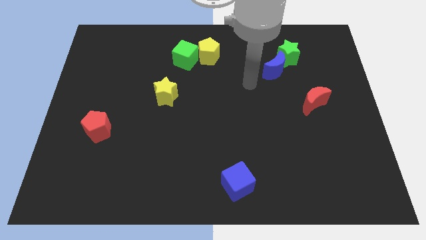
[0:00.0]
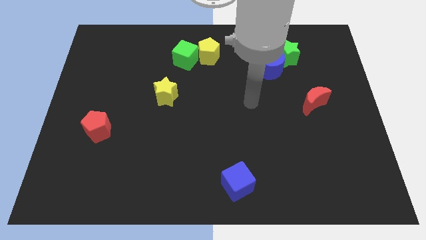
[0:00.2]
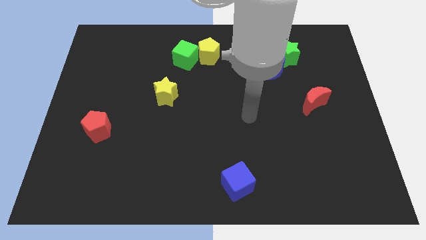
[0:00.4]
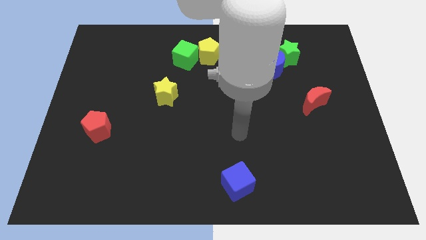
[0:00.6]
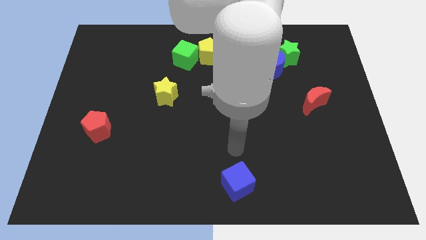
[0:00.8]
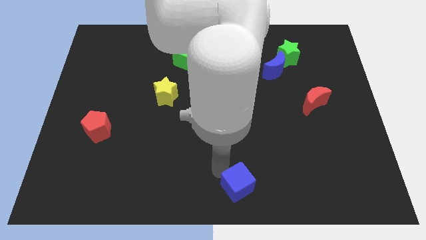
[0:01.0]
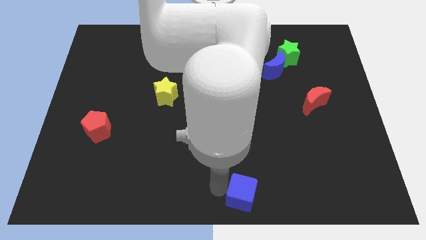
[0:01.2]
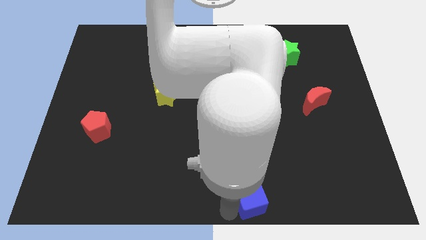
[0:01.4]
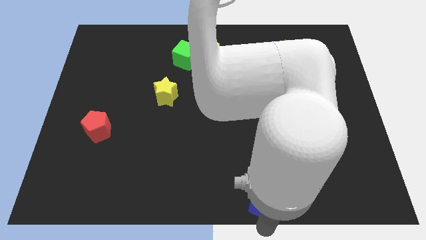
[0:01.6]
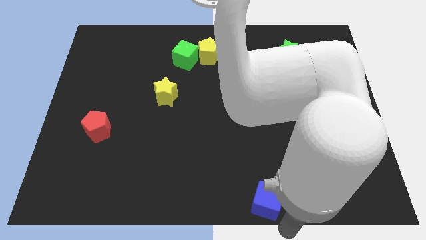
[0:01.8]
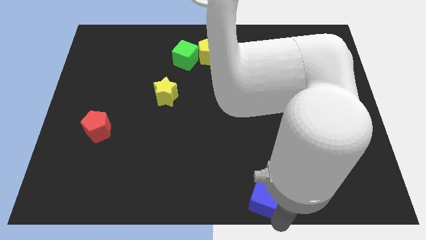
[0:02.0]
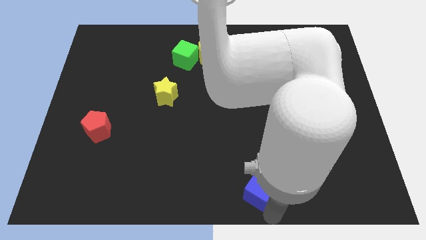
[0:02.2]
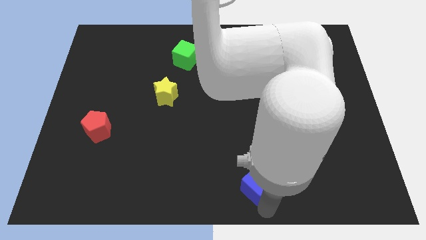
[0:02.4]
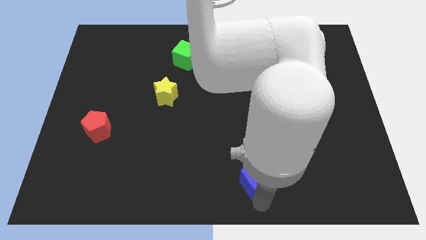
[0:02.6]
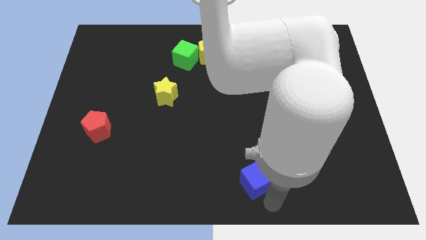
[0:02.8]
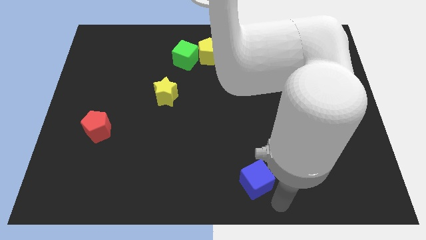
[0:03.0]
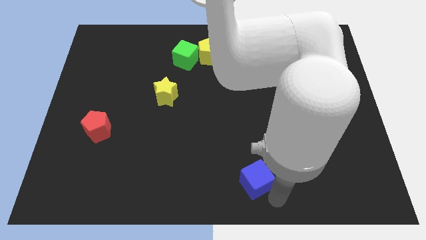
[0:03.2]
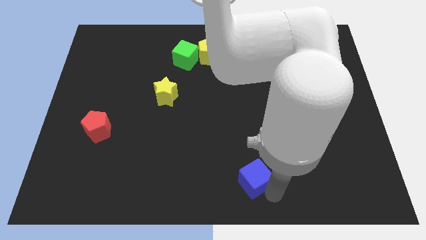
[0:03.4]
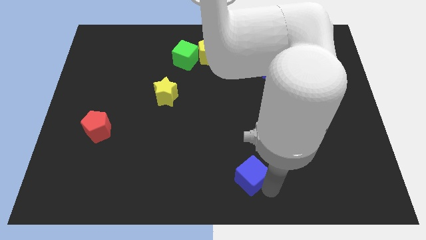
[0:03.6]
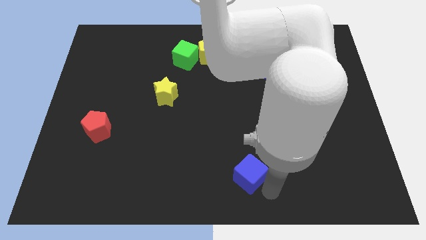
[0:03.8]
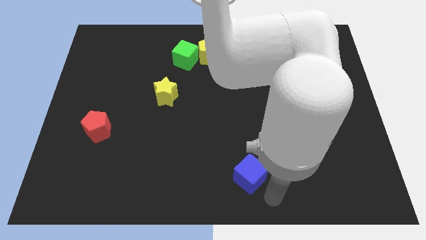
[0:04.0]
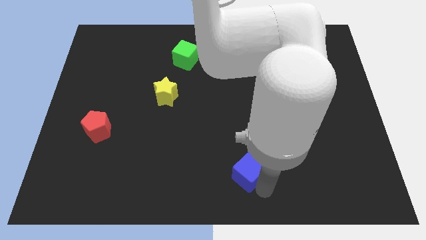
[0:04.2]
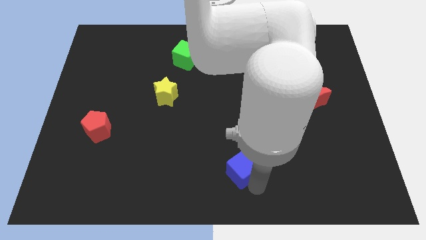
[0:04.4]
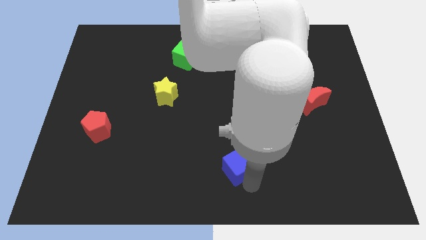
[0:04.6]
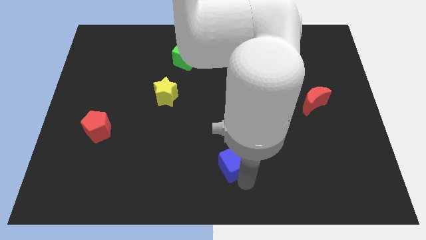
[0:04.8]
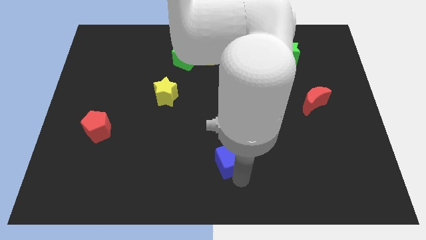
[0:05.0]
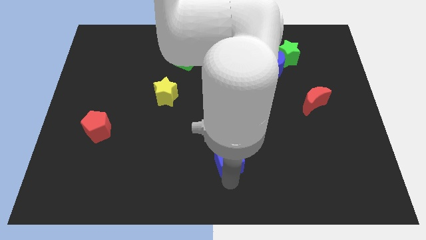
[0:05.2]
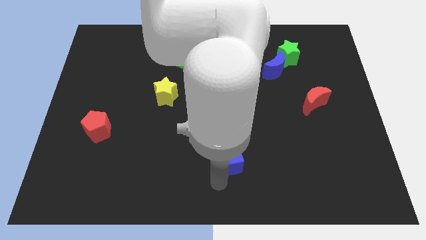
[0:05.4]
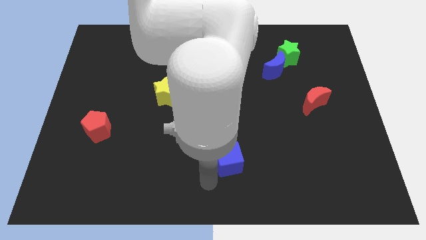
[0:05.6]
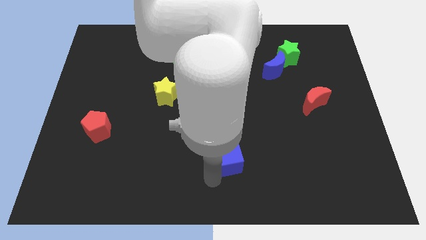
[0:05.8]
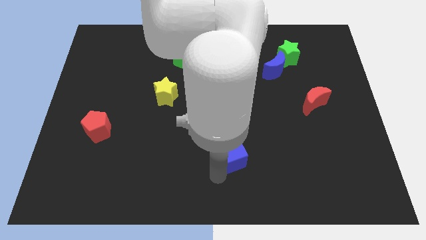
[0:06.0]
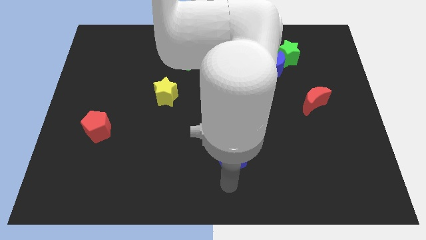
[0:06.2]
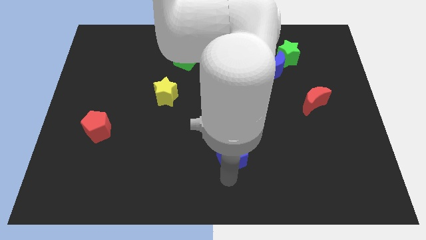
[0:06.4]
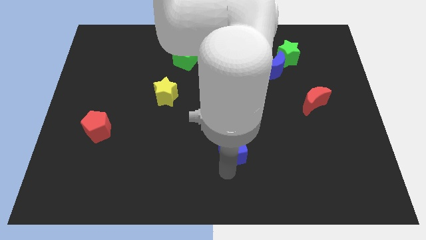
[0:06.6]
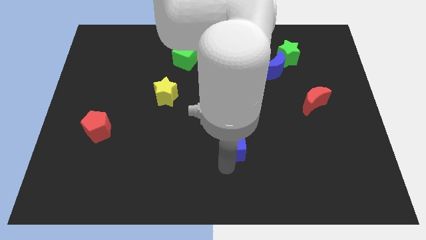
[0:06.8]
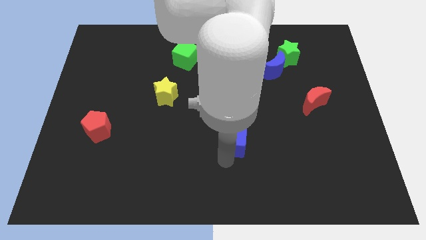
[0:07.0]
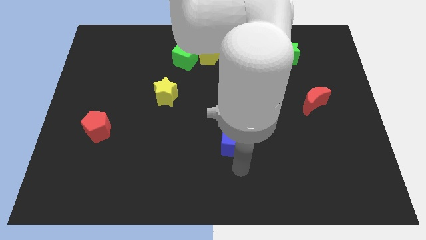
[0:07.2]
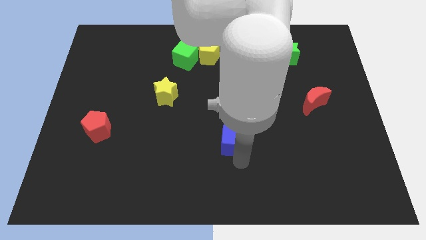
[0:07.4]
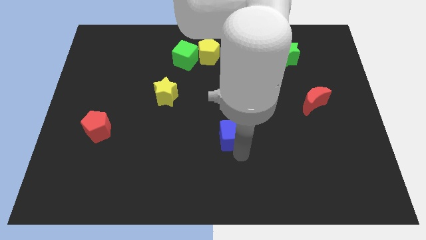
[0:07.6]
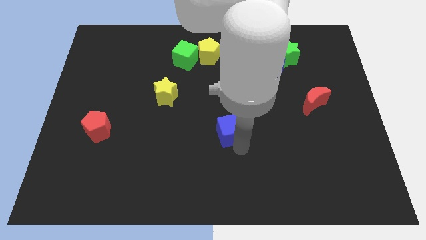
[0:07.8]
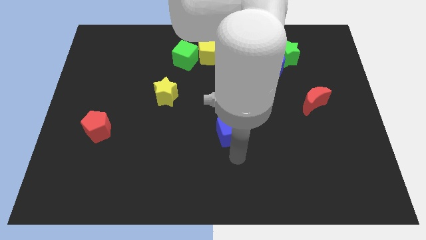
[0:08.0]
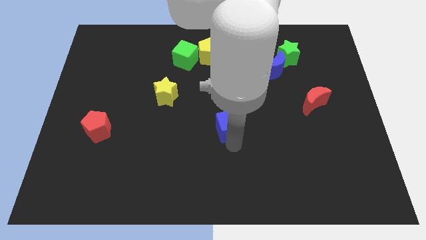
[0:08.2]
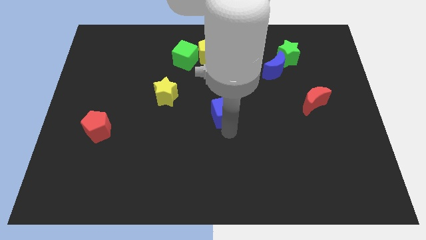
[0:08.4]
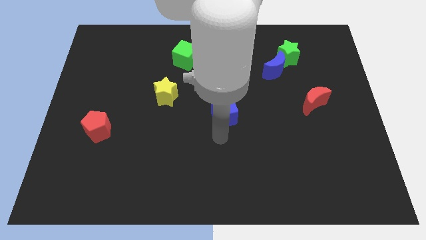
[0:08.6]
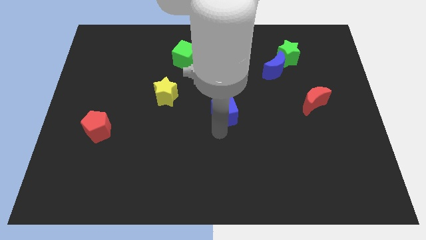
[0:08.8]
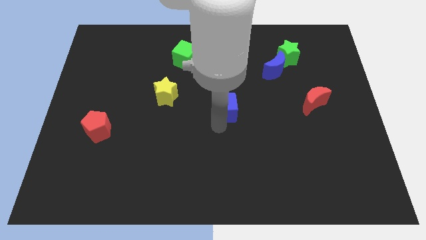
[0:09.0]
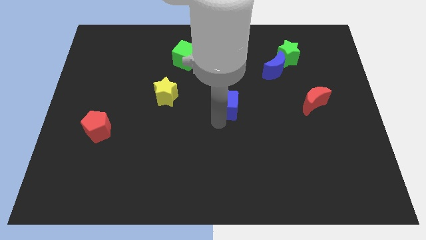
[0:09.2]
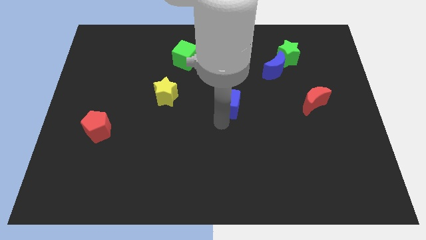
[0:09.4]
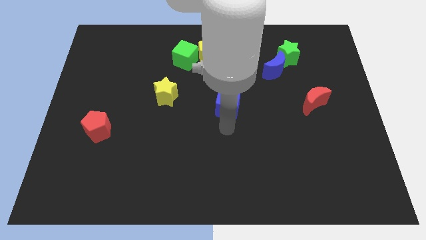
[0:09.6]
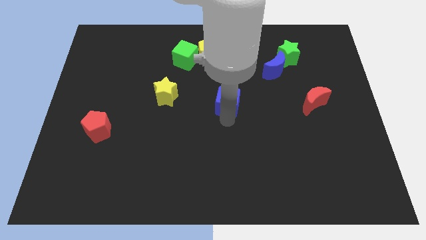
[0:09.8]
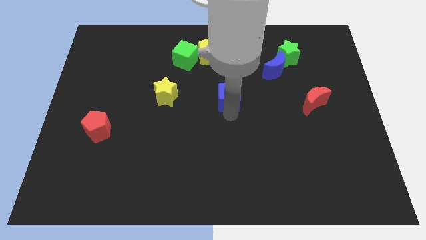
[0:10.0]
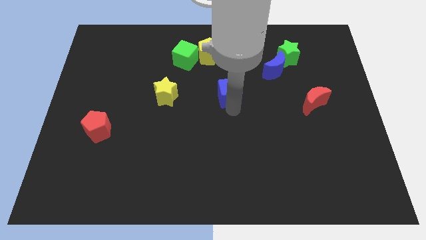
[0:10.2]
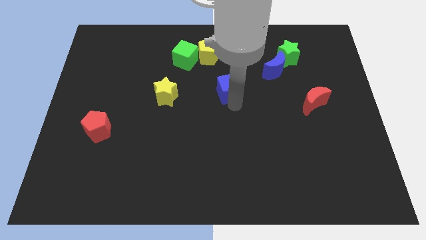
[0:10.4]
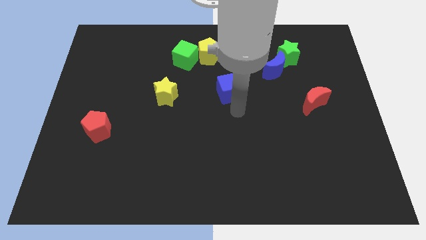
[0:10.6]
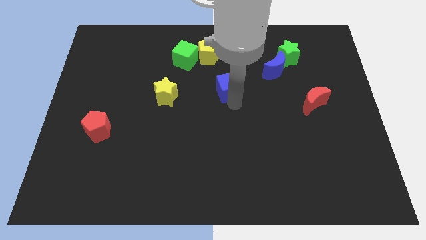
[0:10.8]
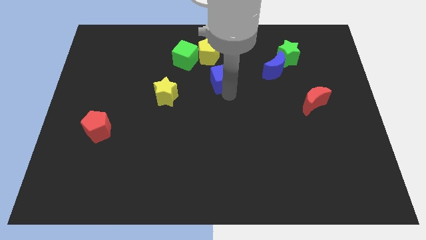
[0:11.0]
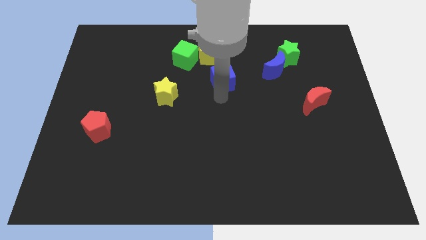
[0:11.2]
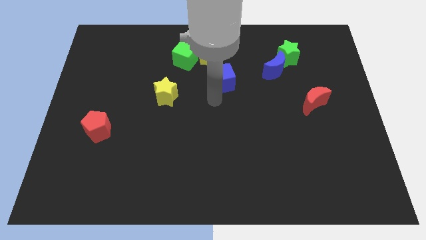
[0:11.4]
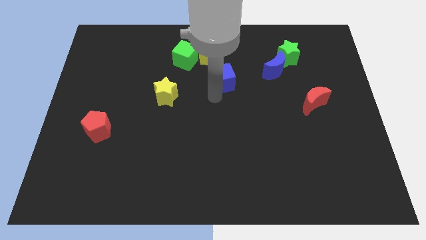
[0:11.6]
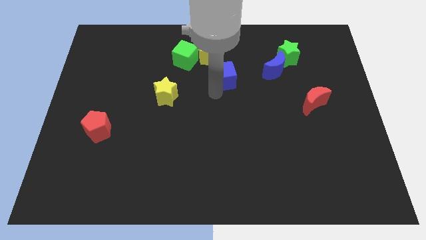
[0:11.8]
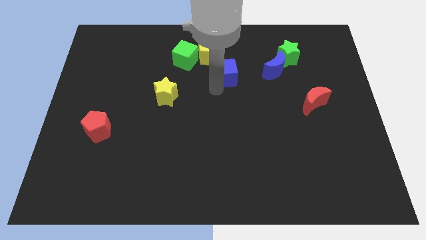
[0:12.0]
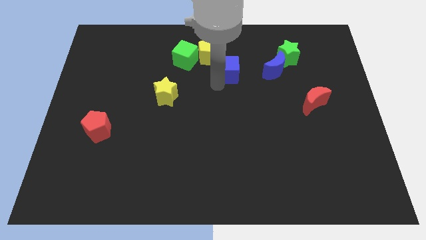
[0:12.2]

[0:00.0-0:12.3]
move the blue cube just right of the green cube

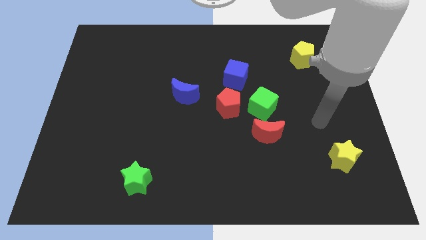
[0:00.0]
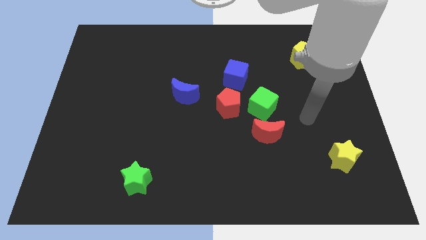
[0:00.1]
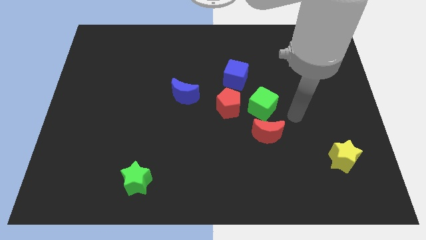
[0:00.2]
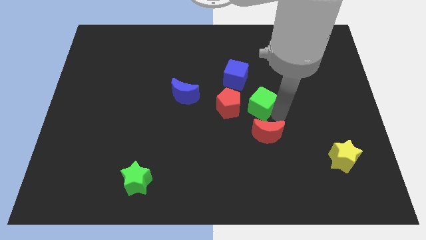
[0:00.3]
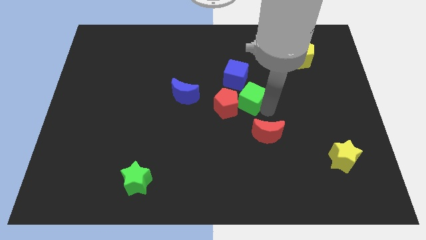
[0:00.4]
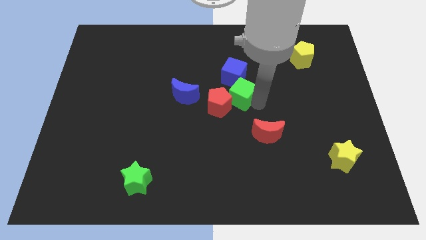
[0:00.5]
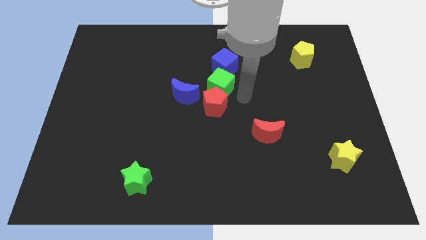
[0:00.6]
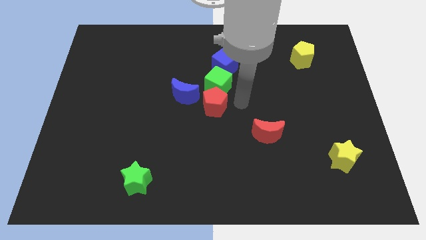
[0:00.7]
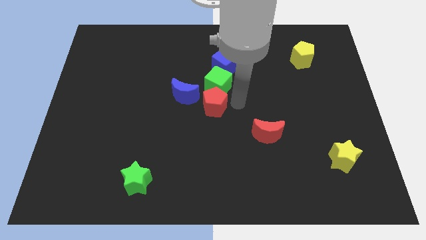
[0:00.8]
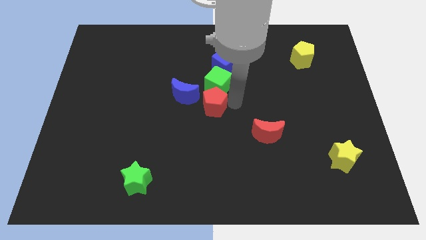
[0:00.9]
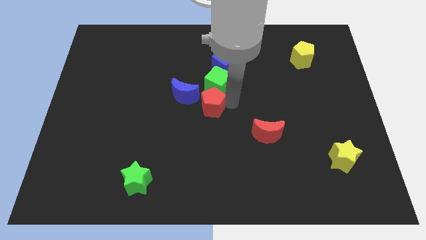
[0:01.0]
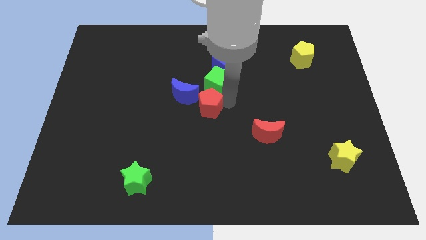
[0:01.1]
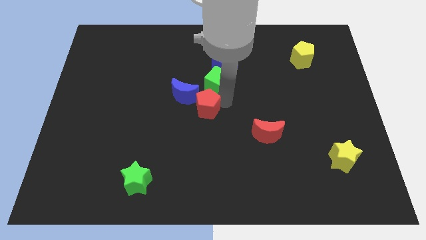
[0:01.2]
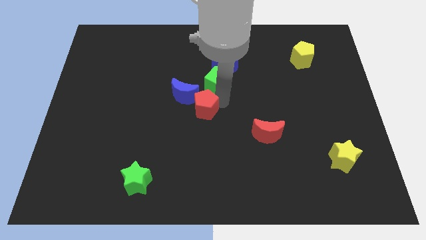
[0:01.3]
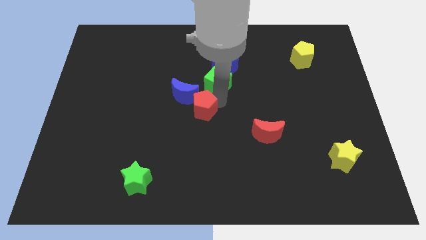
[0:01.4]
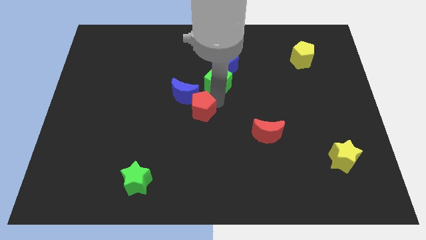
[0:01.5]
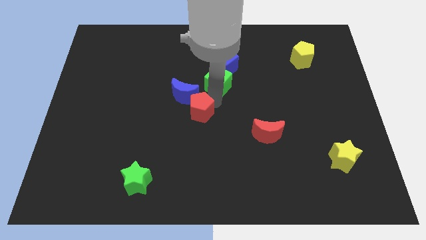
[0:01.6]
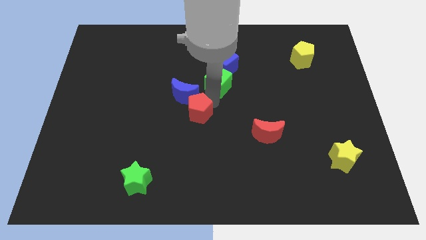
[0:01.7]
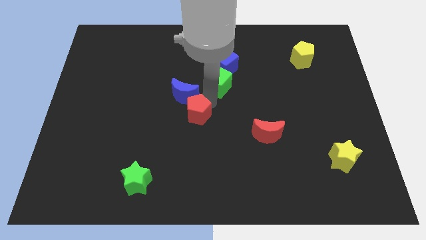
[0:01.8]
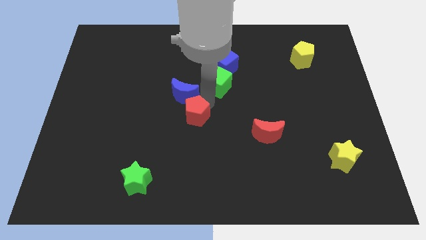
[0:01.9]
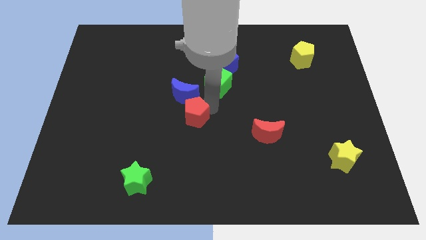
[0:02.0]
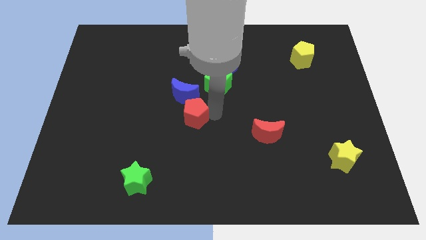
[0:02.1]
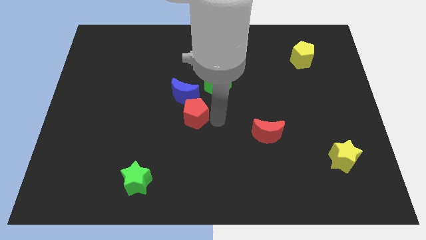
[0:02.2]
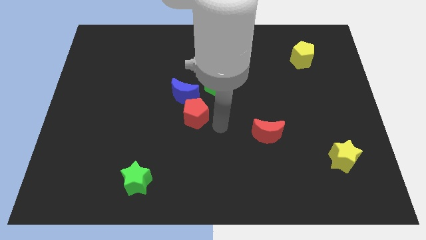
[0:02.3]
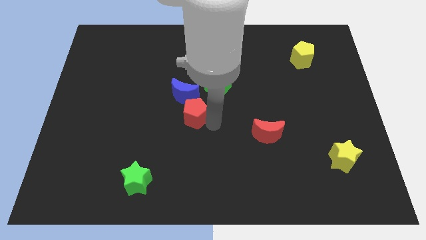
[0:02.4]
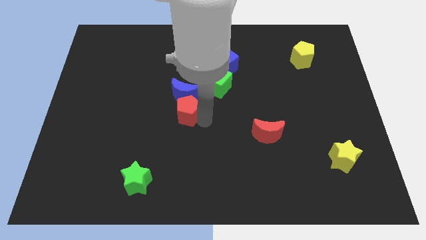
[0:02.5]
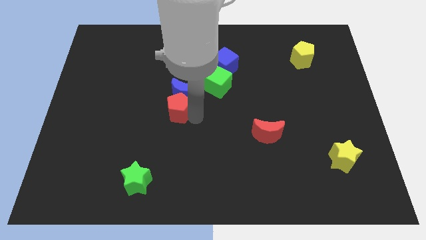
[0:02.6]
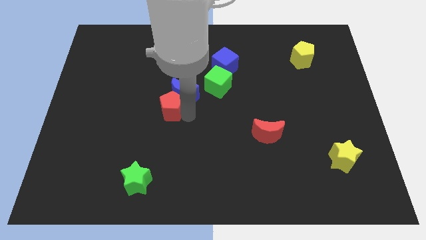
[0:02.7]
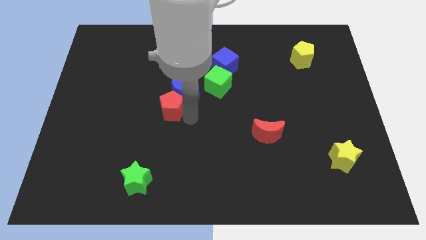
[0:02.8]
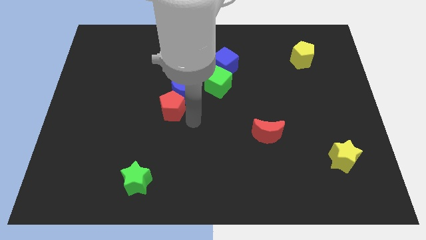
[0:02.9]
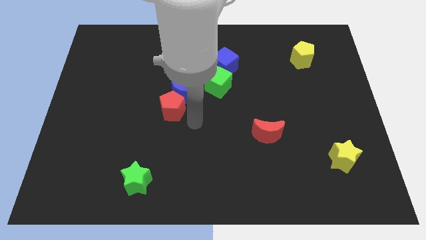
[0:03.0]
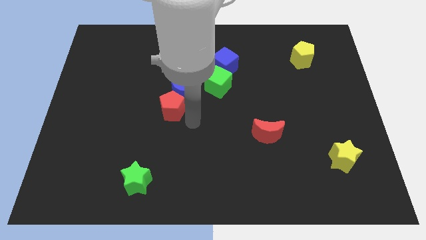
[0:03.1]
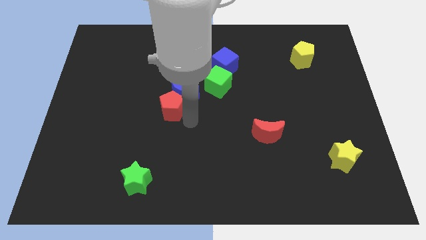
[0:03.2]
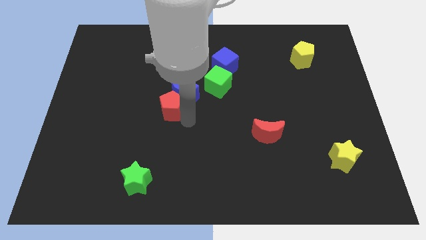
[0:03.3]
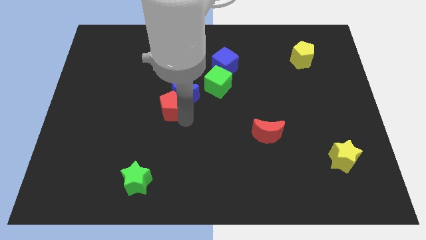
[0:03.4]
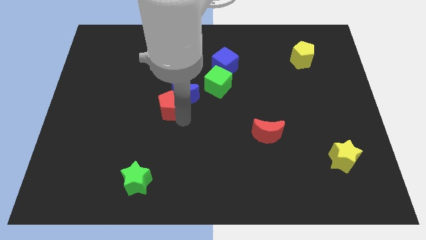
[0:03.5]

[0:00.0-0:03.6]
push the red pentagon to the left of the blue moon
